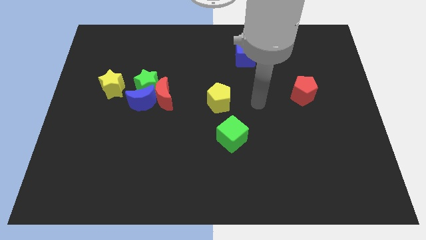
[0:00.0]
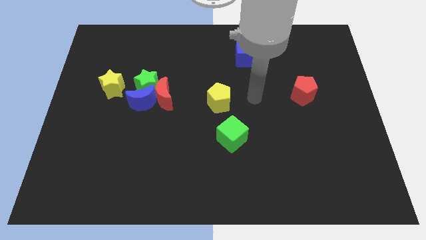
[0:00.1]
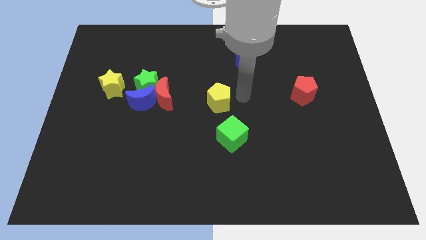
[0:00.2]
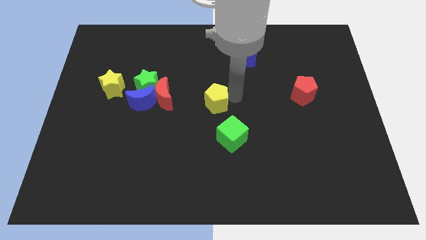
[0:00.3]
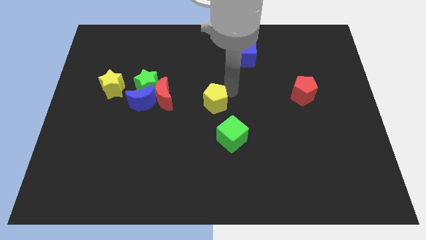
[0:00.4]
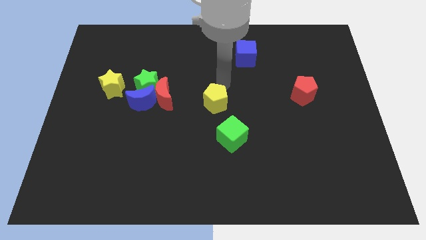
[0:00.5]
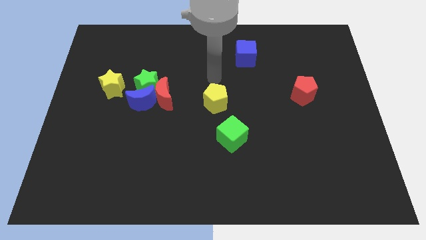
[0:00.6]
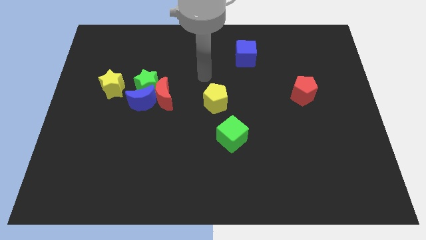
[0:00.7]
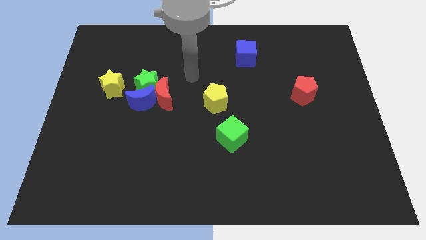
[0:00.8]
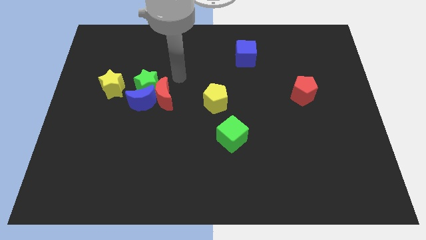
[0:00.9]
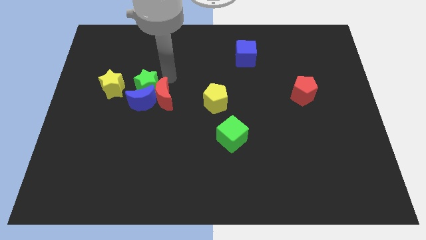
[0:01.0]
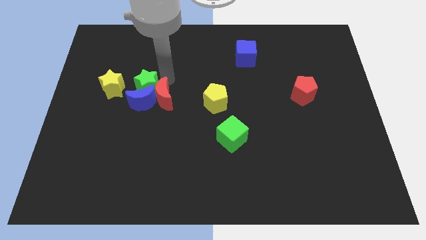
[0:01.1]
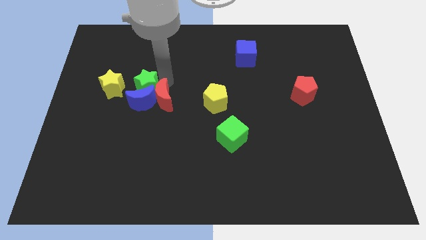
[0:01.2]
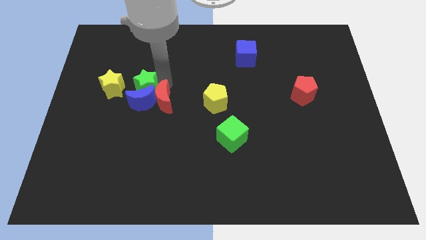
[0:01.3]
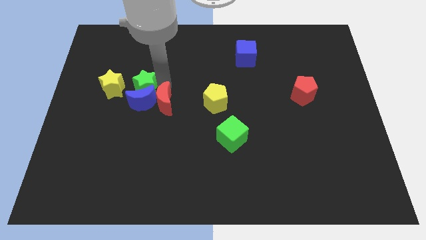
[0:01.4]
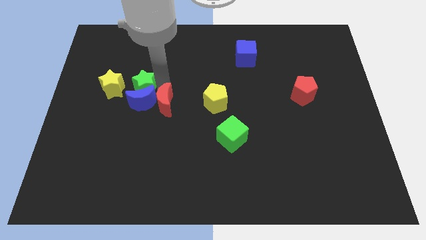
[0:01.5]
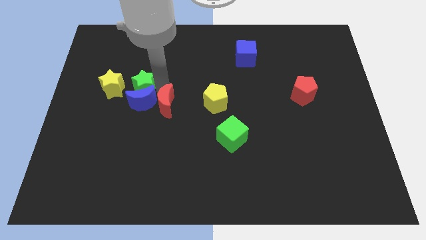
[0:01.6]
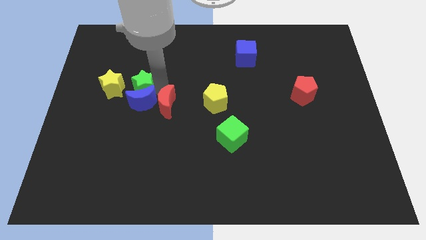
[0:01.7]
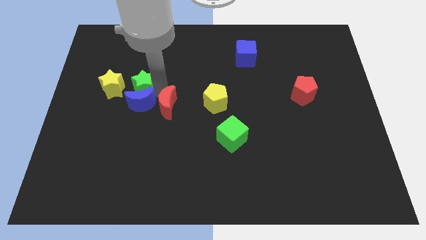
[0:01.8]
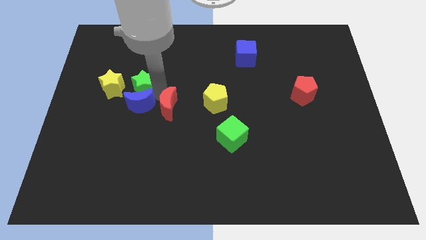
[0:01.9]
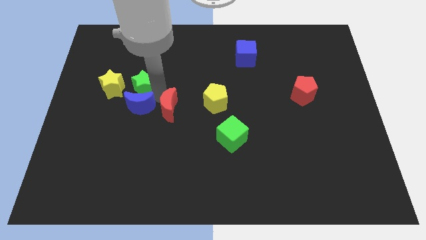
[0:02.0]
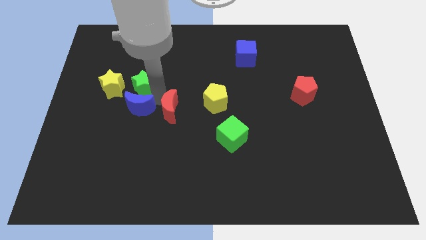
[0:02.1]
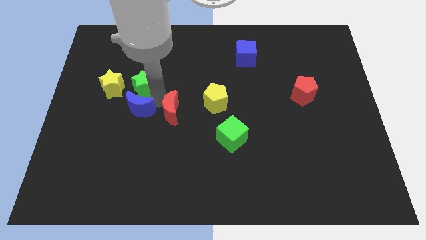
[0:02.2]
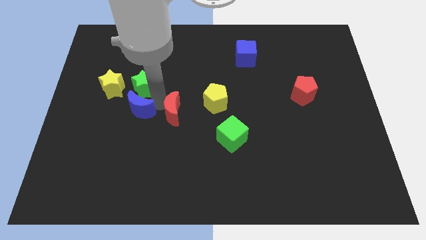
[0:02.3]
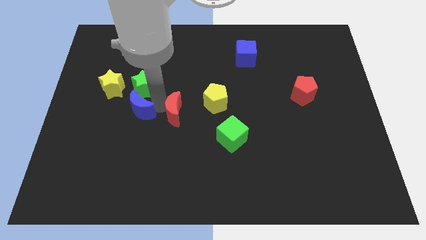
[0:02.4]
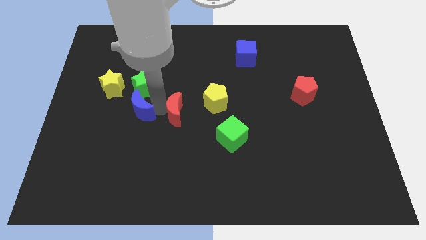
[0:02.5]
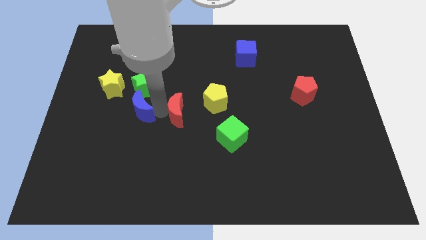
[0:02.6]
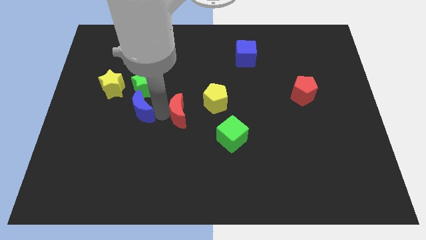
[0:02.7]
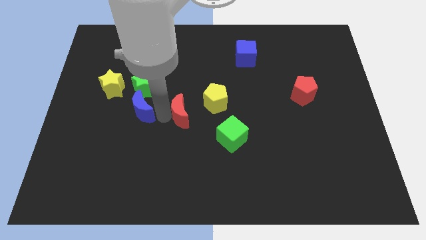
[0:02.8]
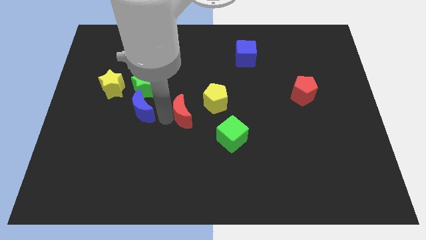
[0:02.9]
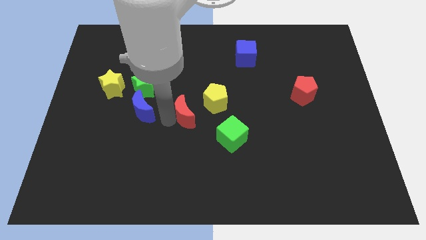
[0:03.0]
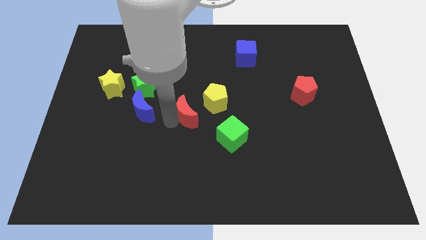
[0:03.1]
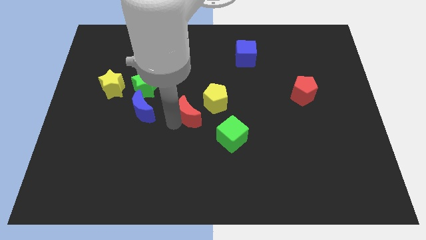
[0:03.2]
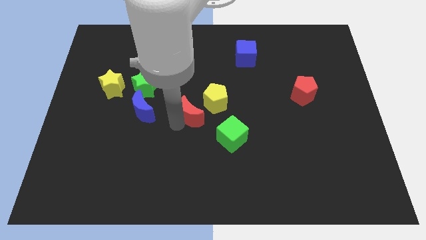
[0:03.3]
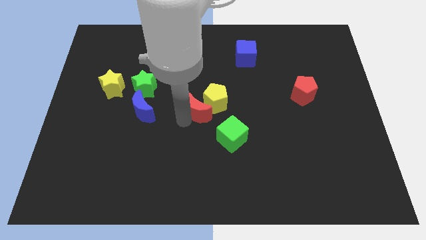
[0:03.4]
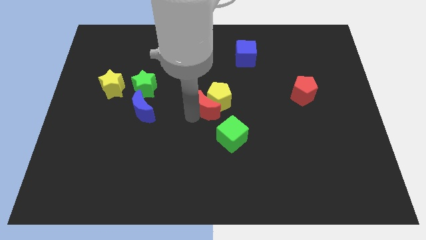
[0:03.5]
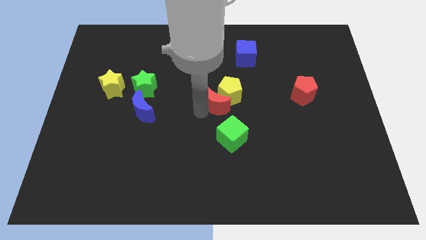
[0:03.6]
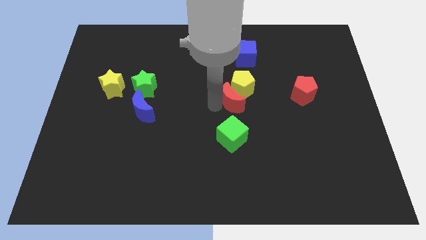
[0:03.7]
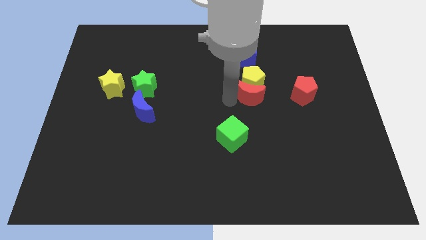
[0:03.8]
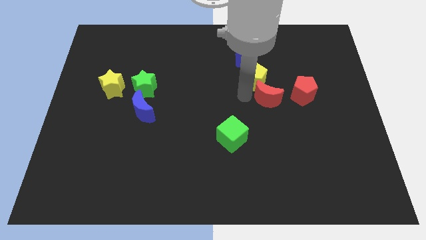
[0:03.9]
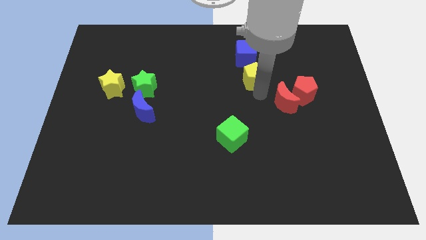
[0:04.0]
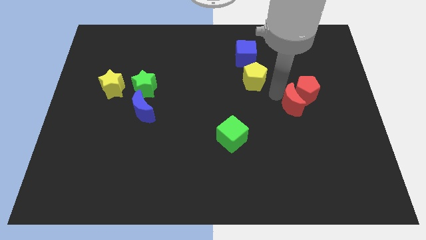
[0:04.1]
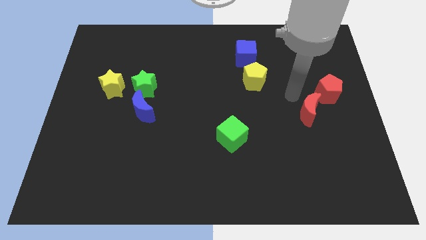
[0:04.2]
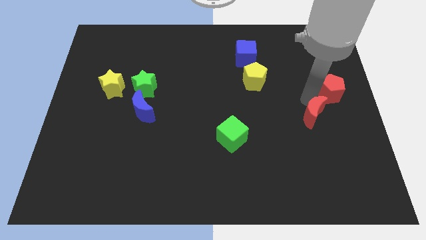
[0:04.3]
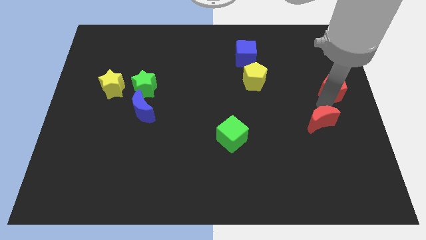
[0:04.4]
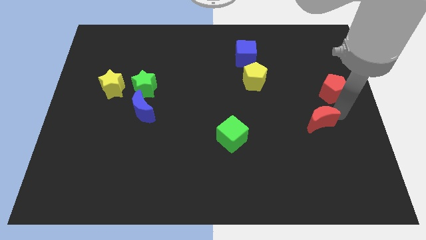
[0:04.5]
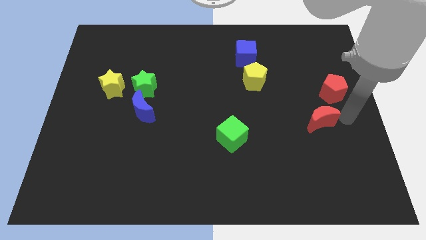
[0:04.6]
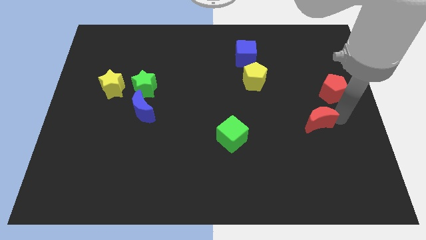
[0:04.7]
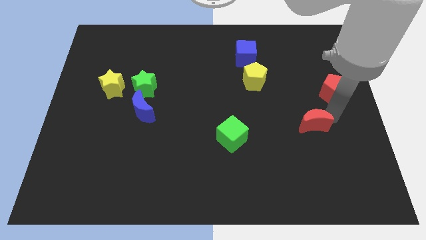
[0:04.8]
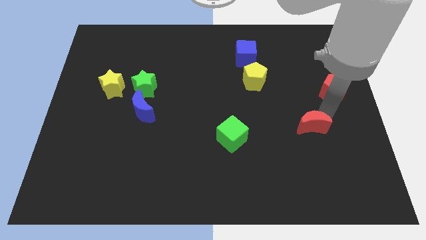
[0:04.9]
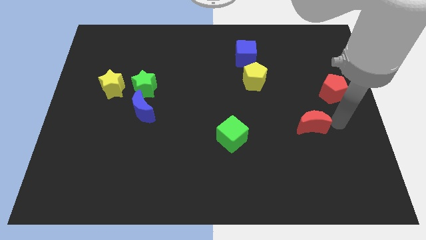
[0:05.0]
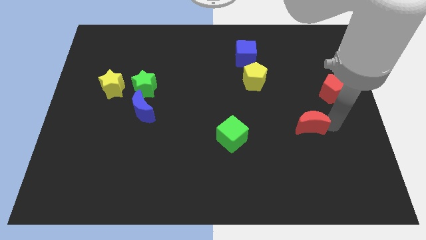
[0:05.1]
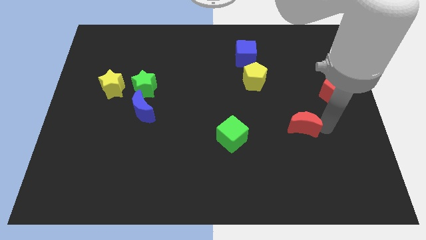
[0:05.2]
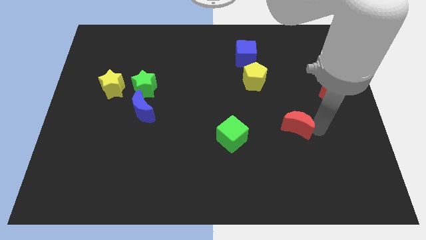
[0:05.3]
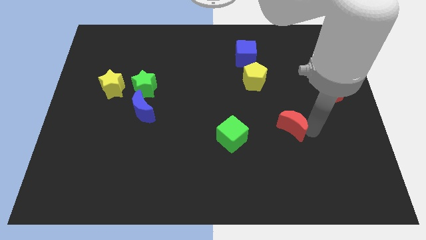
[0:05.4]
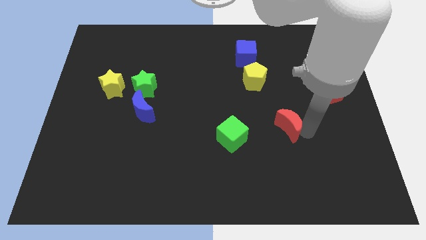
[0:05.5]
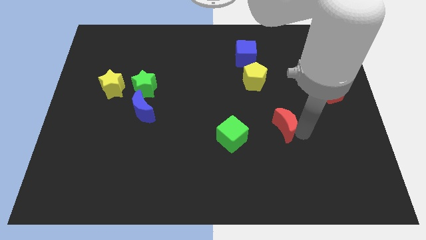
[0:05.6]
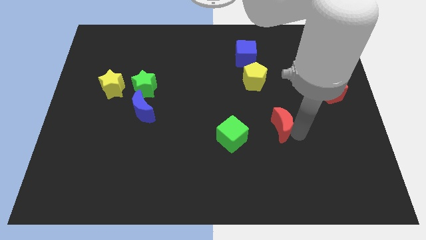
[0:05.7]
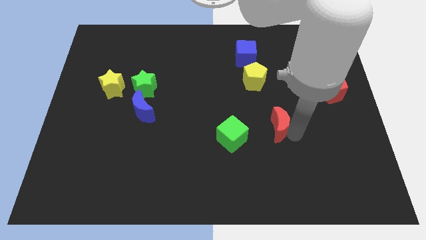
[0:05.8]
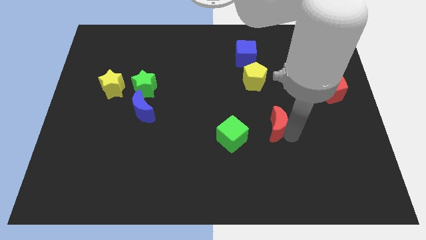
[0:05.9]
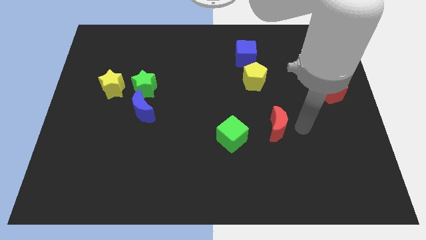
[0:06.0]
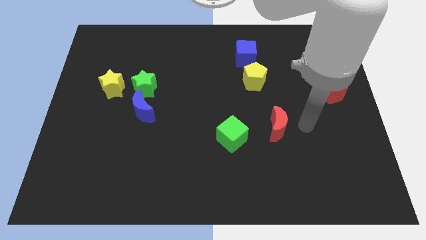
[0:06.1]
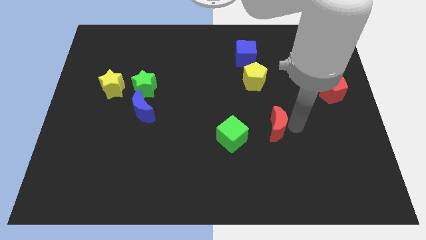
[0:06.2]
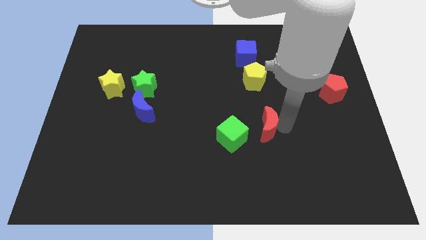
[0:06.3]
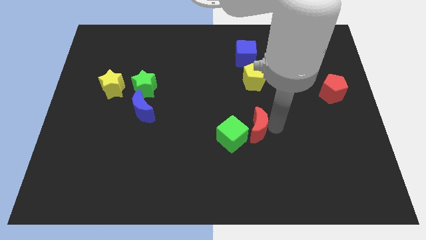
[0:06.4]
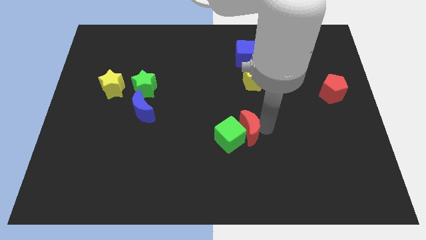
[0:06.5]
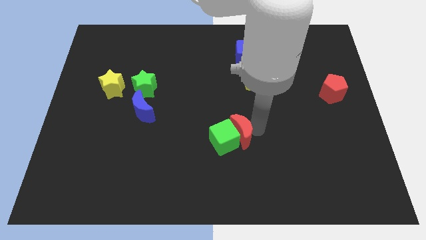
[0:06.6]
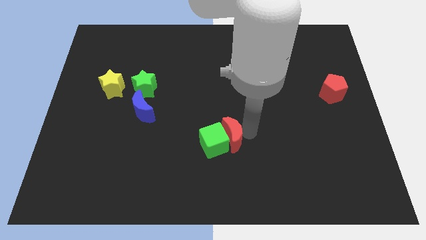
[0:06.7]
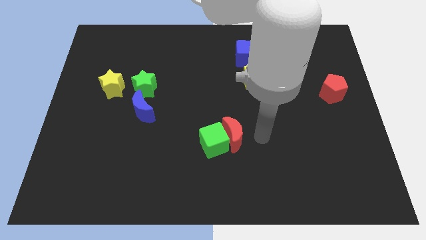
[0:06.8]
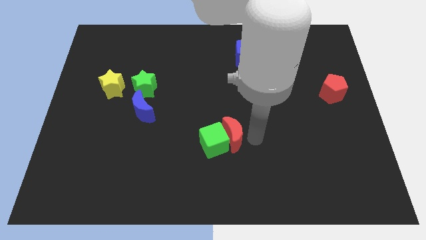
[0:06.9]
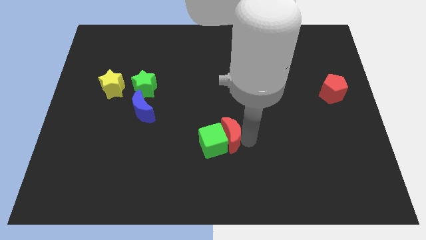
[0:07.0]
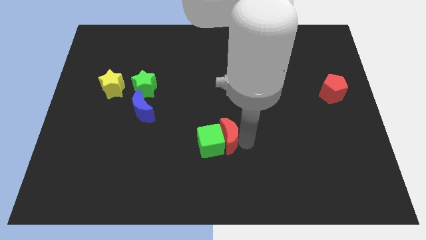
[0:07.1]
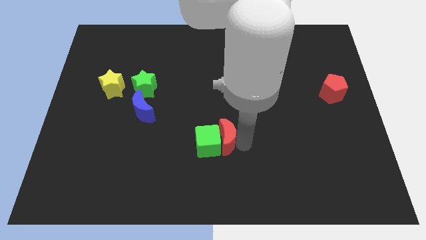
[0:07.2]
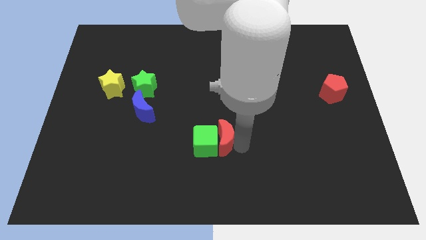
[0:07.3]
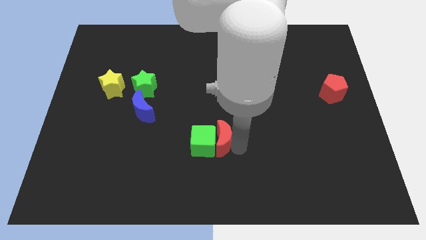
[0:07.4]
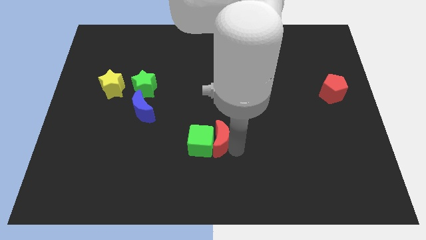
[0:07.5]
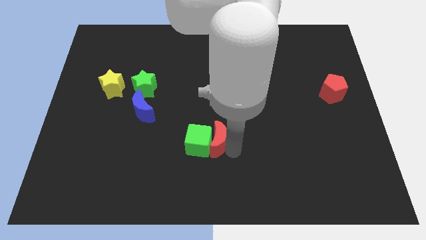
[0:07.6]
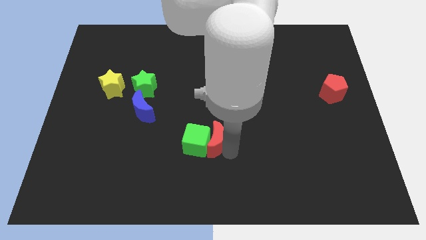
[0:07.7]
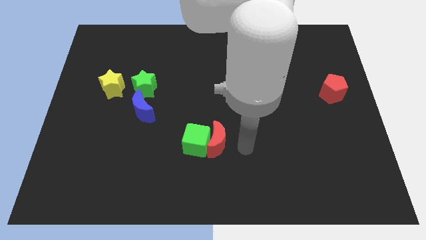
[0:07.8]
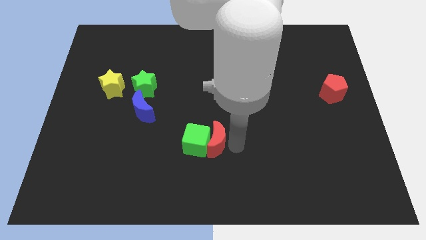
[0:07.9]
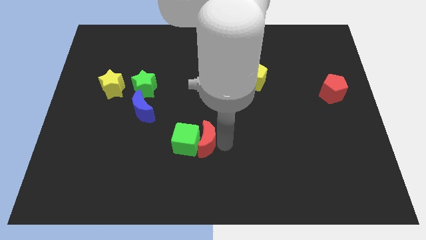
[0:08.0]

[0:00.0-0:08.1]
push the red moon down a bit
